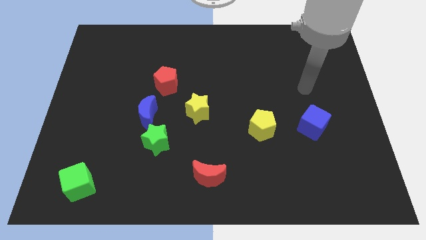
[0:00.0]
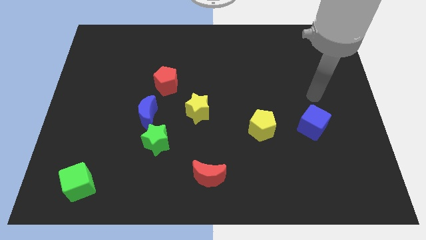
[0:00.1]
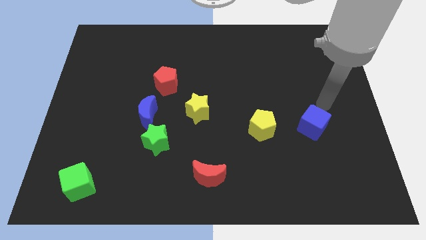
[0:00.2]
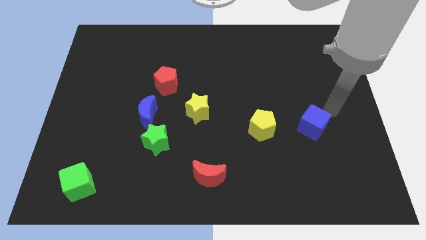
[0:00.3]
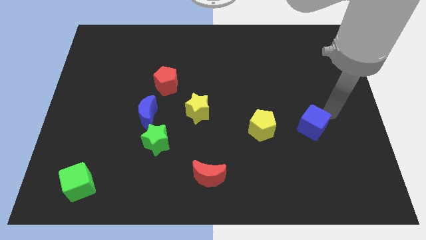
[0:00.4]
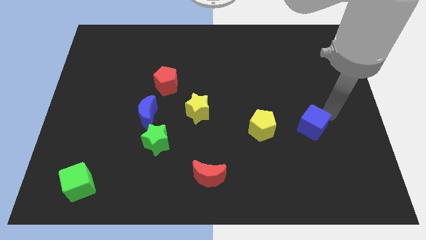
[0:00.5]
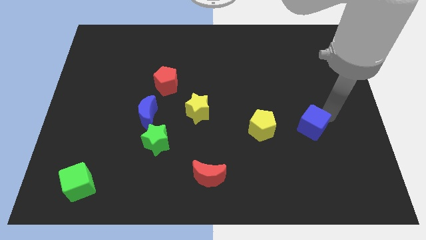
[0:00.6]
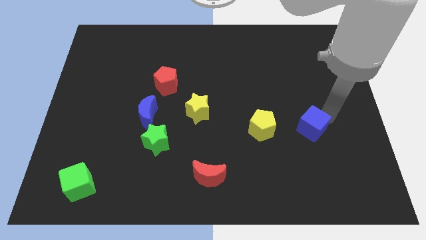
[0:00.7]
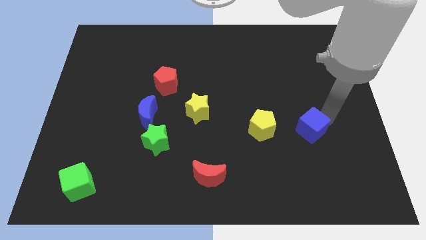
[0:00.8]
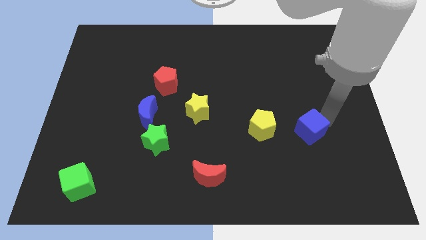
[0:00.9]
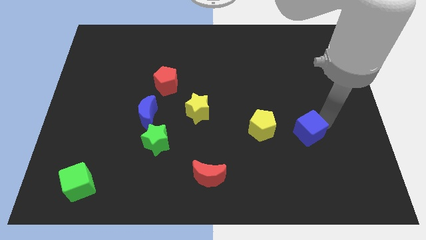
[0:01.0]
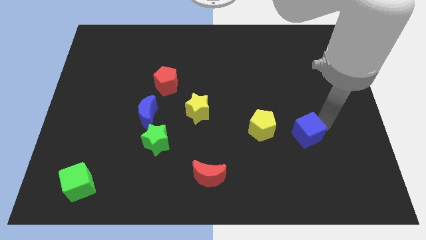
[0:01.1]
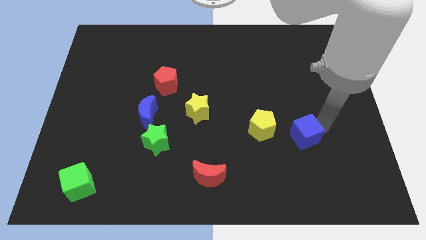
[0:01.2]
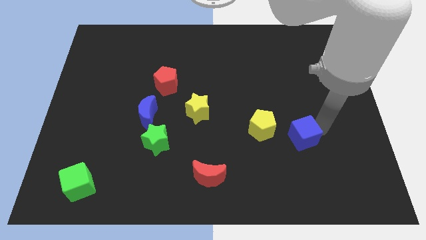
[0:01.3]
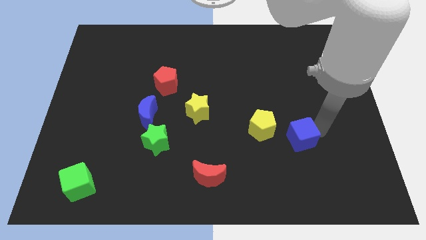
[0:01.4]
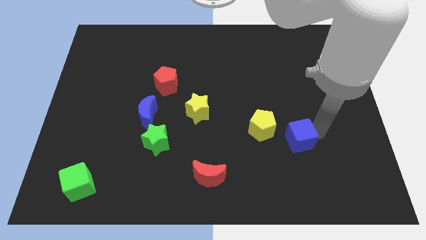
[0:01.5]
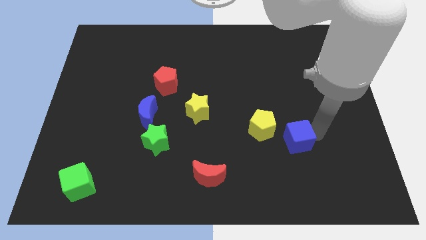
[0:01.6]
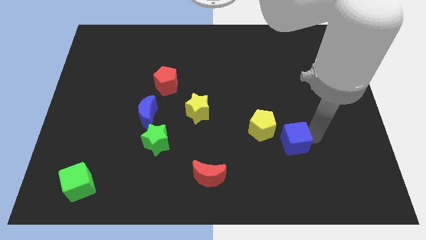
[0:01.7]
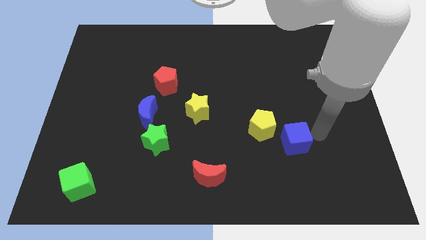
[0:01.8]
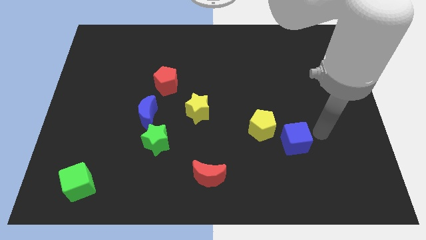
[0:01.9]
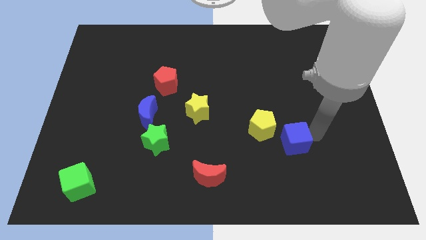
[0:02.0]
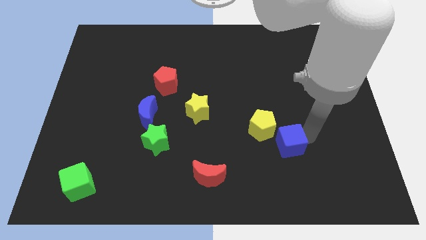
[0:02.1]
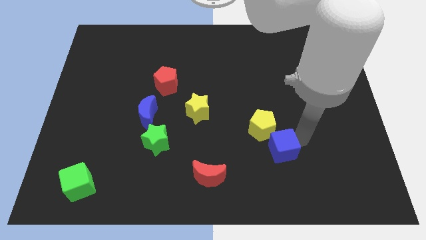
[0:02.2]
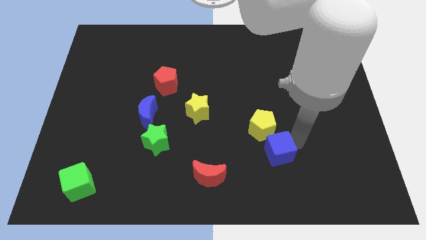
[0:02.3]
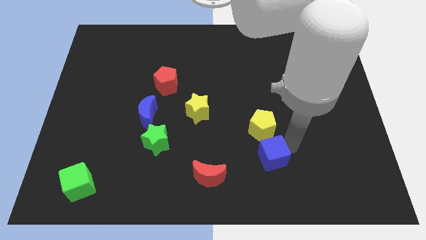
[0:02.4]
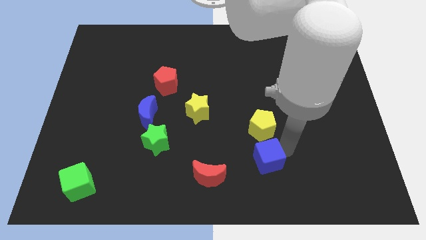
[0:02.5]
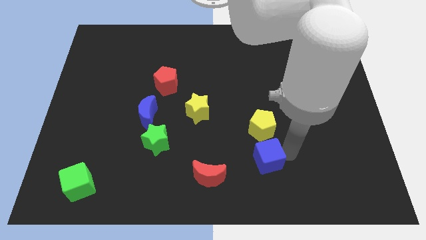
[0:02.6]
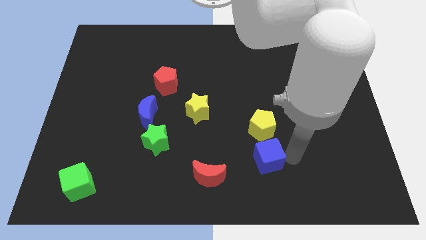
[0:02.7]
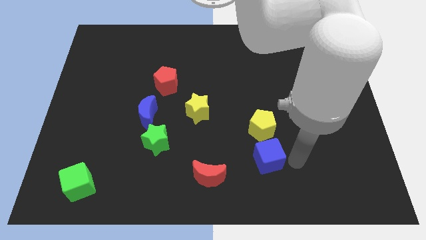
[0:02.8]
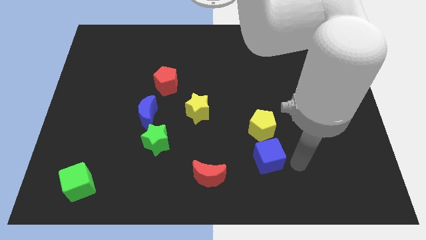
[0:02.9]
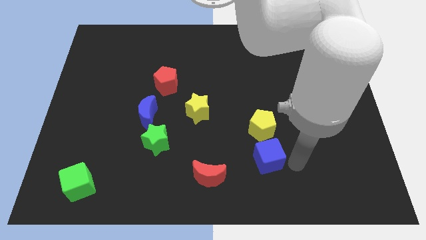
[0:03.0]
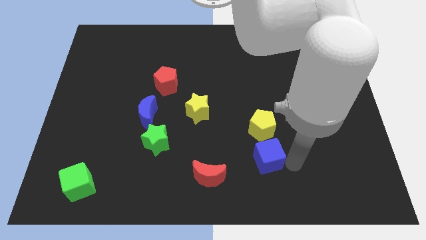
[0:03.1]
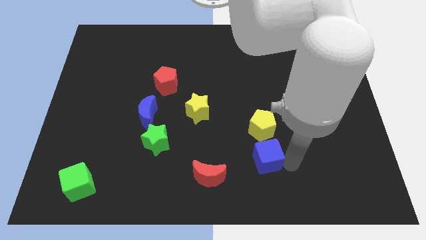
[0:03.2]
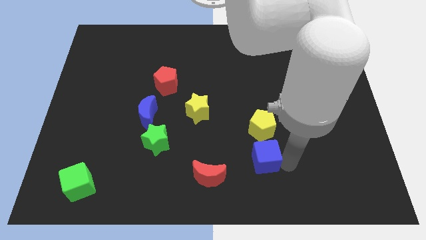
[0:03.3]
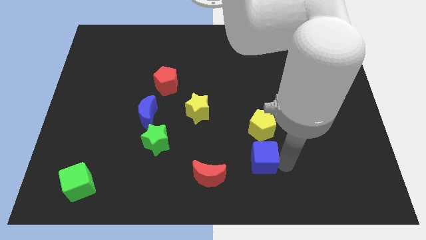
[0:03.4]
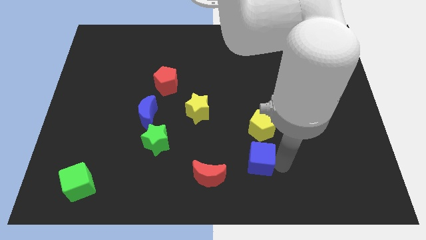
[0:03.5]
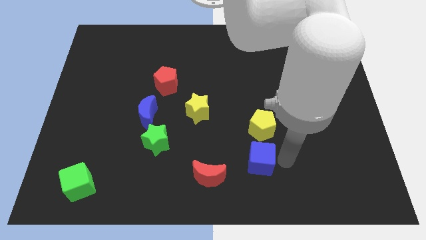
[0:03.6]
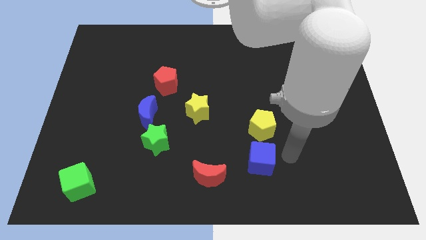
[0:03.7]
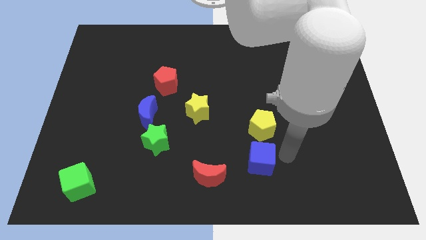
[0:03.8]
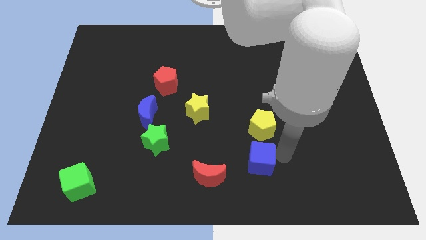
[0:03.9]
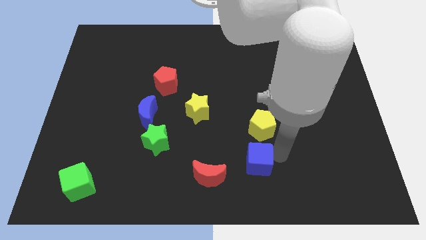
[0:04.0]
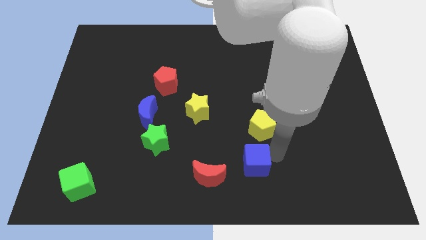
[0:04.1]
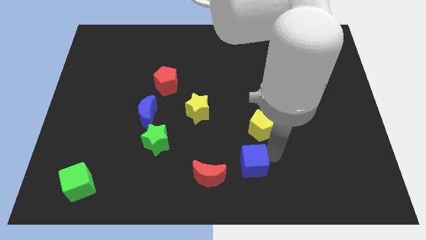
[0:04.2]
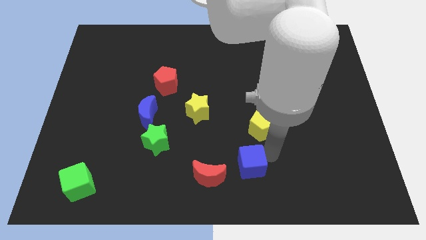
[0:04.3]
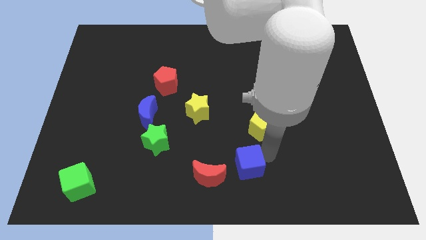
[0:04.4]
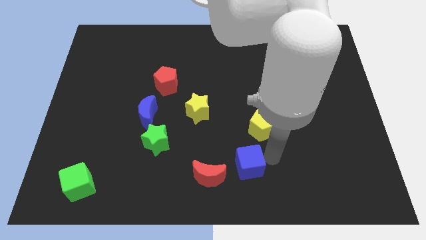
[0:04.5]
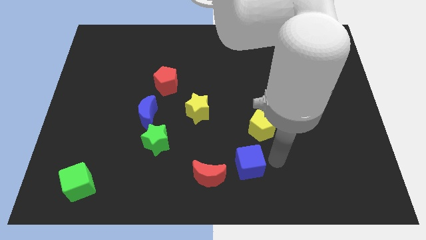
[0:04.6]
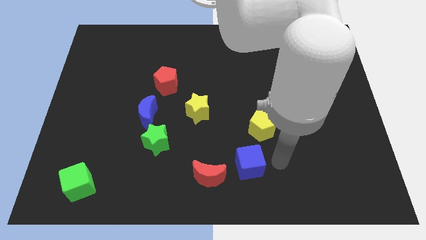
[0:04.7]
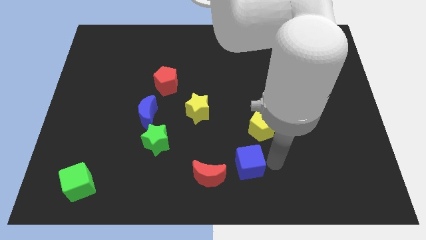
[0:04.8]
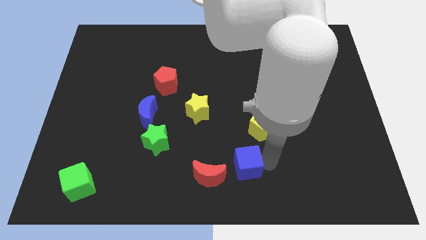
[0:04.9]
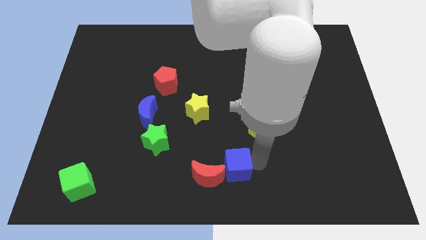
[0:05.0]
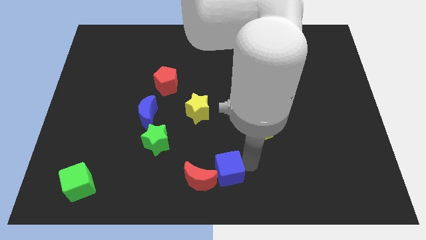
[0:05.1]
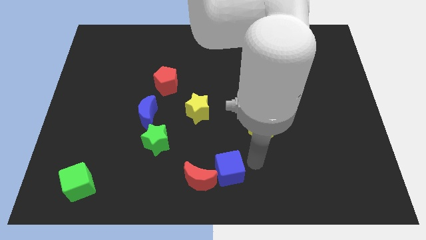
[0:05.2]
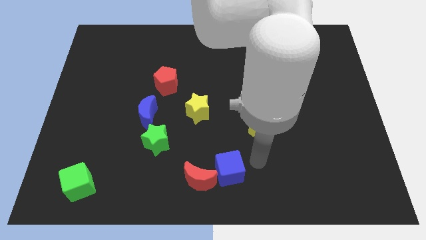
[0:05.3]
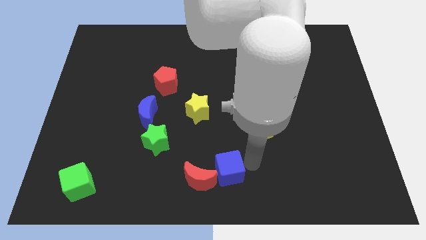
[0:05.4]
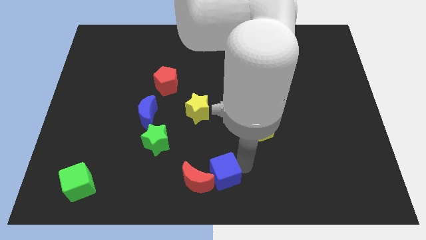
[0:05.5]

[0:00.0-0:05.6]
put the blue cube towards the red moon

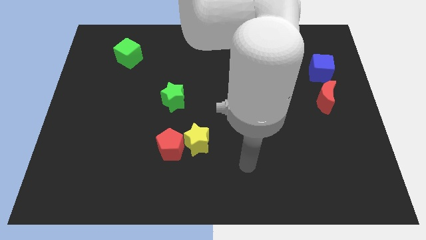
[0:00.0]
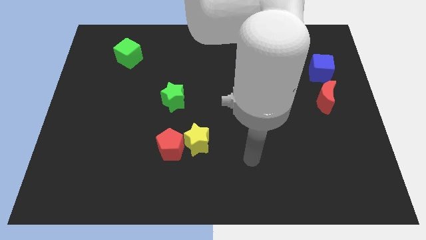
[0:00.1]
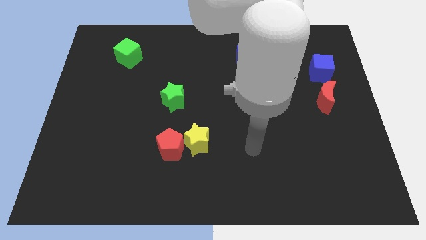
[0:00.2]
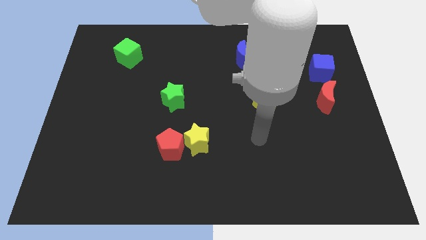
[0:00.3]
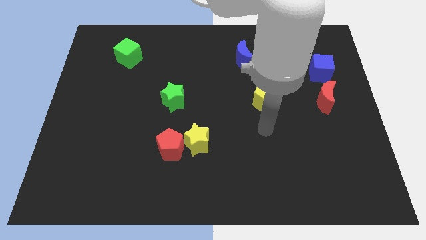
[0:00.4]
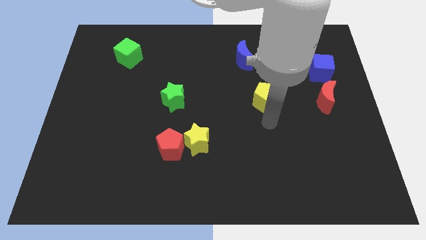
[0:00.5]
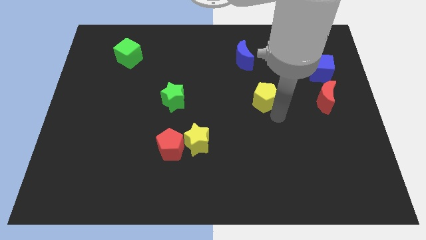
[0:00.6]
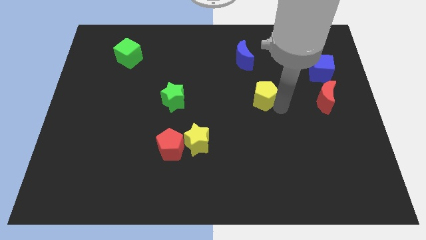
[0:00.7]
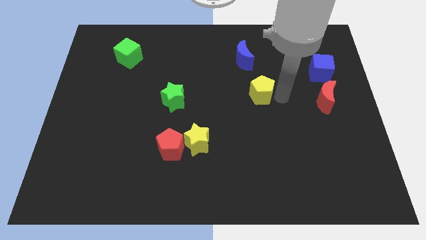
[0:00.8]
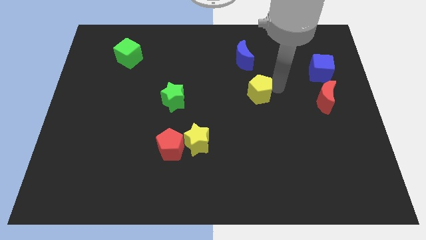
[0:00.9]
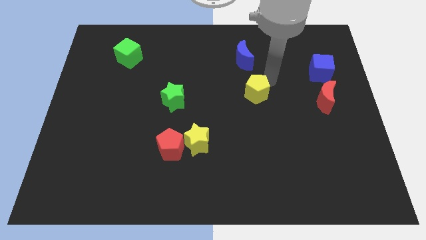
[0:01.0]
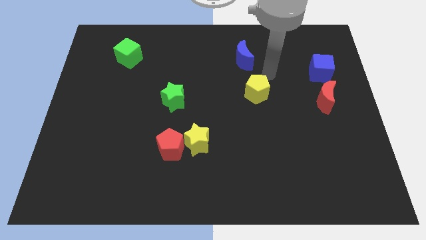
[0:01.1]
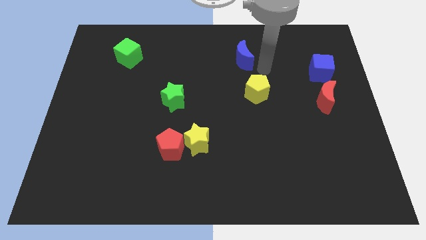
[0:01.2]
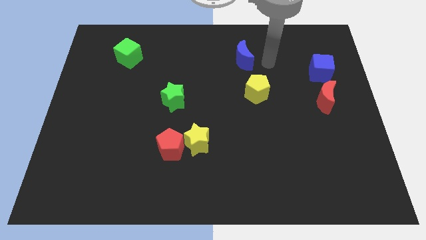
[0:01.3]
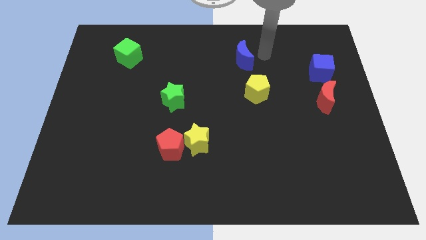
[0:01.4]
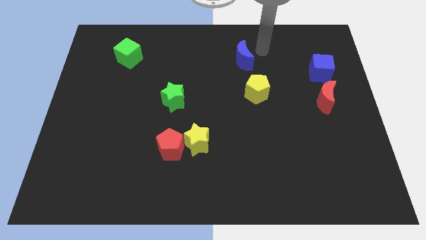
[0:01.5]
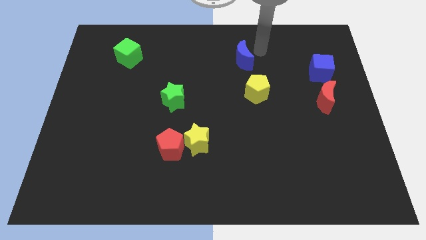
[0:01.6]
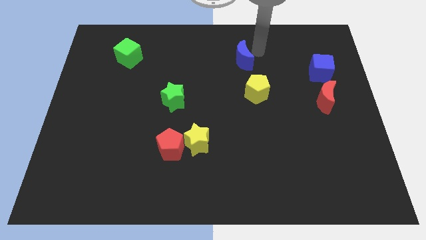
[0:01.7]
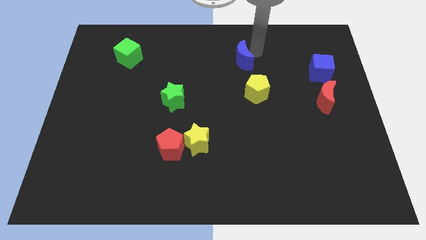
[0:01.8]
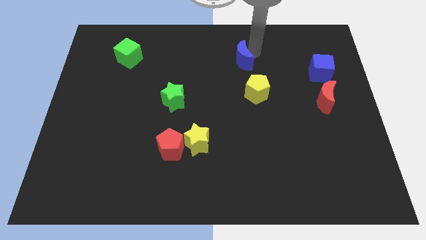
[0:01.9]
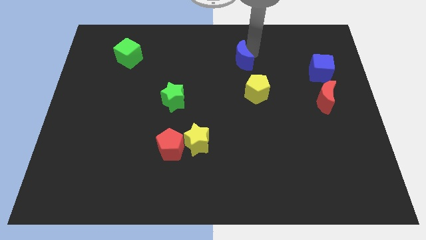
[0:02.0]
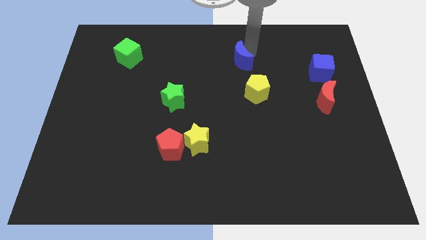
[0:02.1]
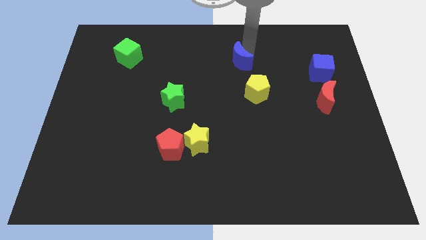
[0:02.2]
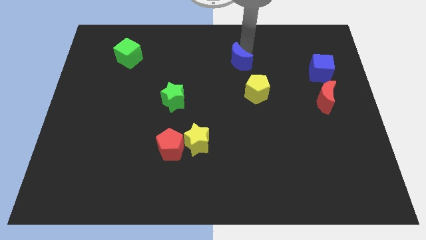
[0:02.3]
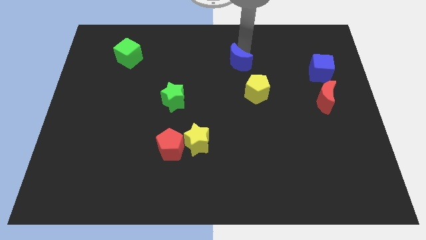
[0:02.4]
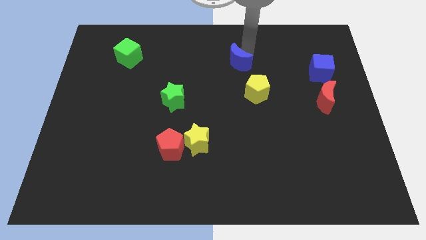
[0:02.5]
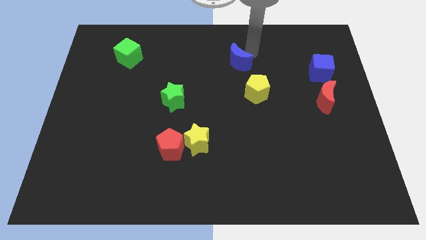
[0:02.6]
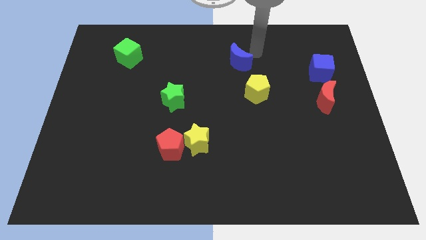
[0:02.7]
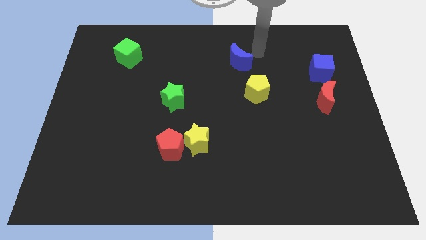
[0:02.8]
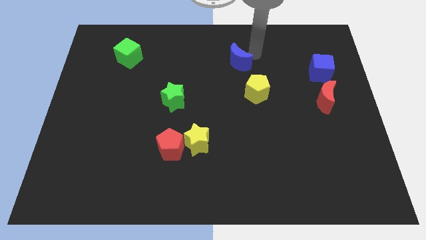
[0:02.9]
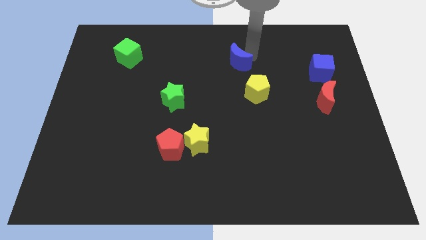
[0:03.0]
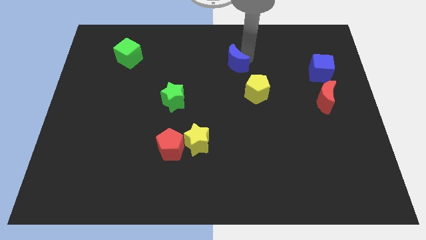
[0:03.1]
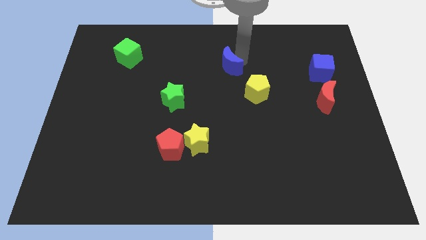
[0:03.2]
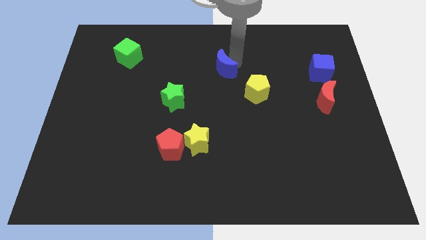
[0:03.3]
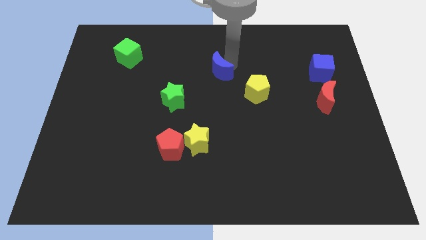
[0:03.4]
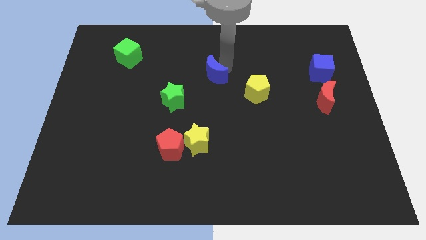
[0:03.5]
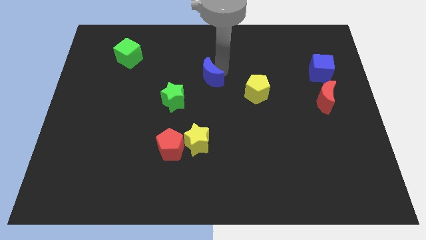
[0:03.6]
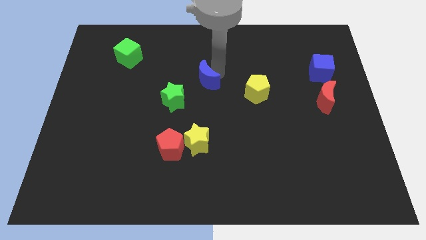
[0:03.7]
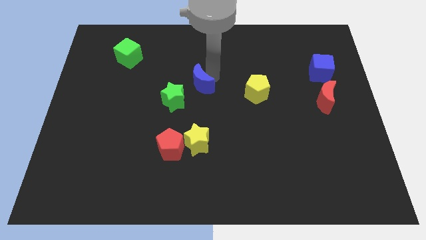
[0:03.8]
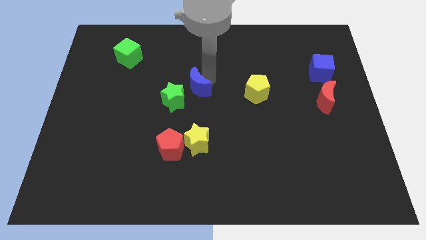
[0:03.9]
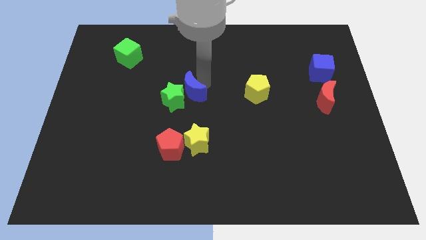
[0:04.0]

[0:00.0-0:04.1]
put the blue moon towards the green star
